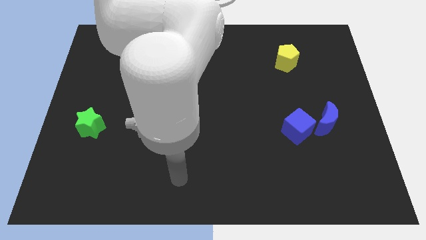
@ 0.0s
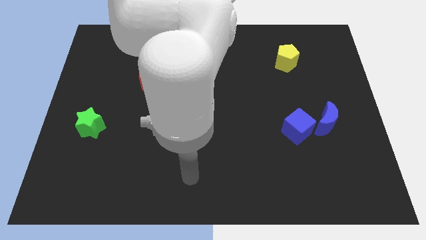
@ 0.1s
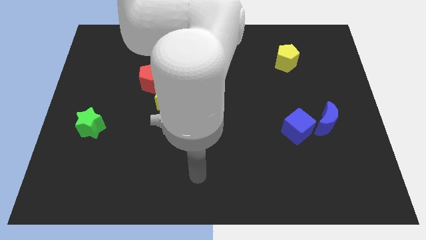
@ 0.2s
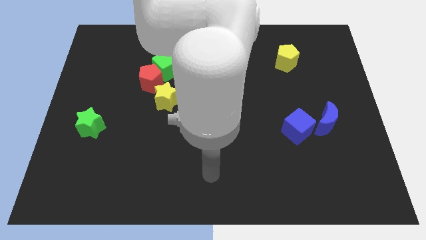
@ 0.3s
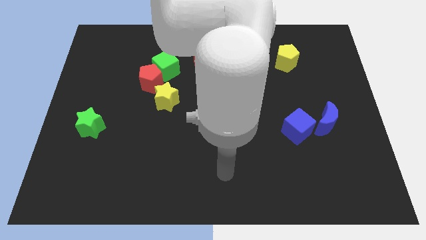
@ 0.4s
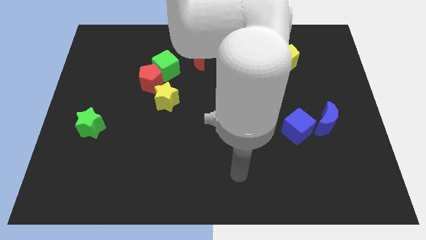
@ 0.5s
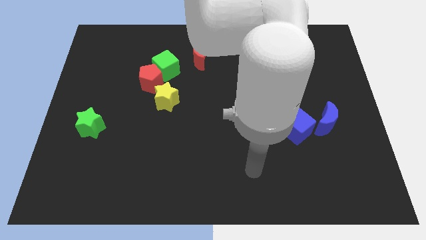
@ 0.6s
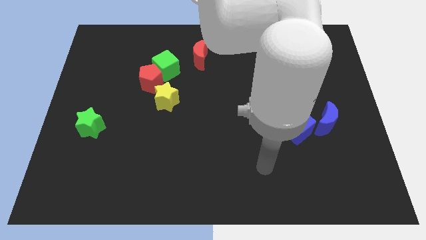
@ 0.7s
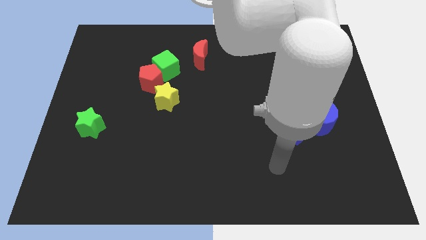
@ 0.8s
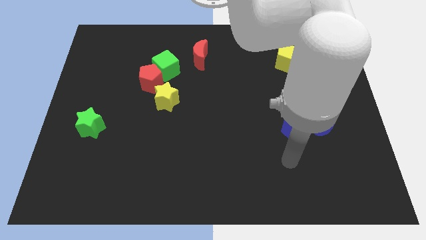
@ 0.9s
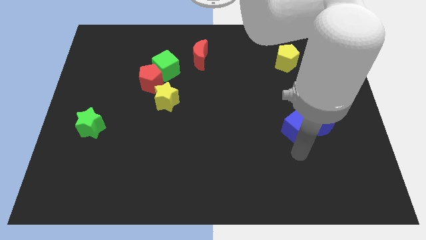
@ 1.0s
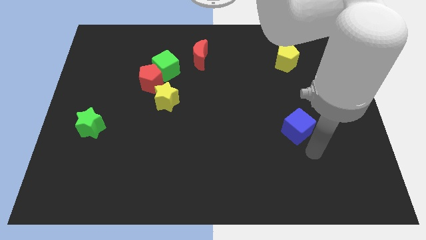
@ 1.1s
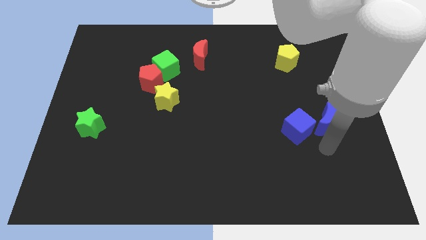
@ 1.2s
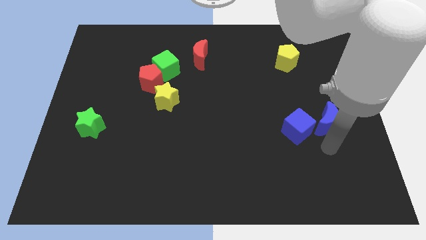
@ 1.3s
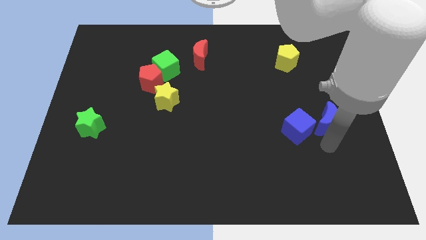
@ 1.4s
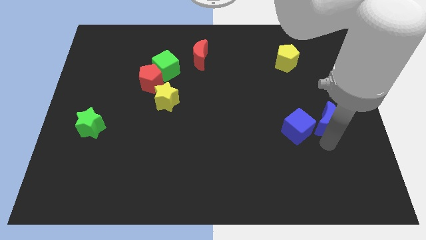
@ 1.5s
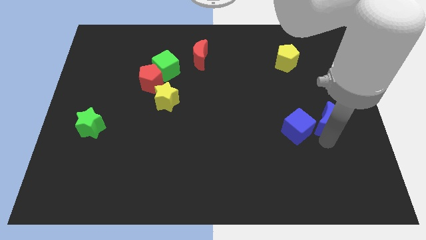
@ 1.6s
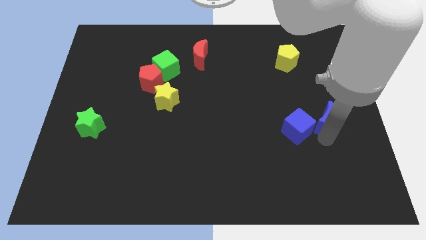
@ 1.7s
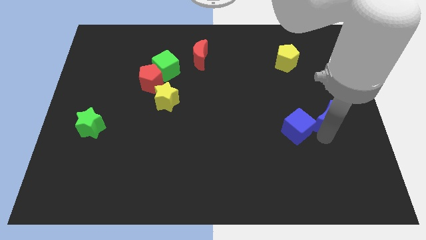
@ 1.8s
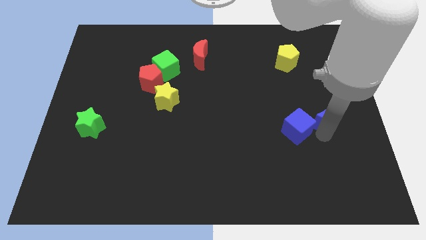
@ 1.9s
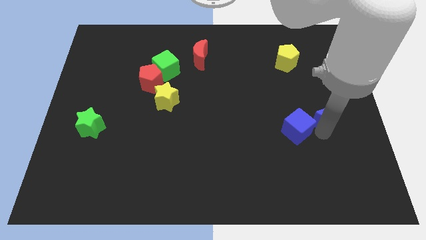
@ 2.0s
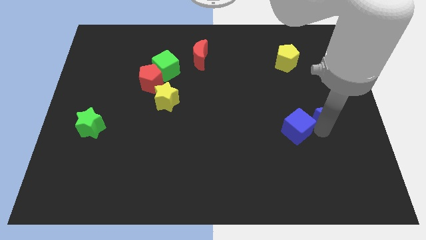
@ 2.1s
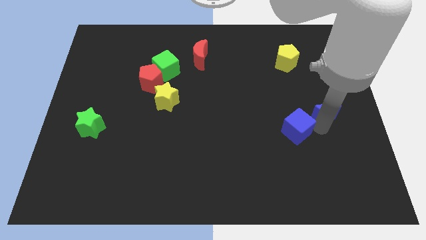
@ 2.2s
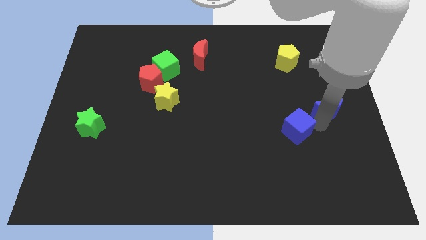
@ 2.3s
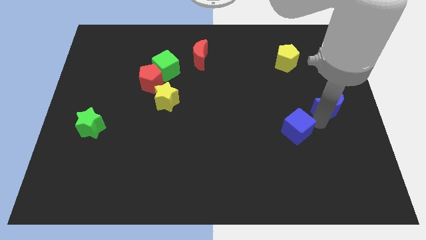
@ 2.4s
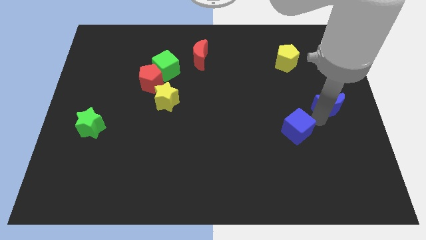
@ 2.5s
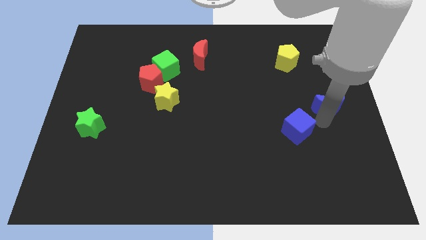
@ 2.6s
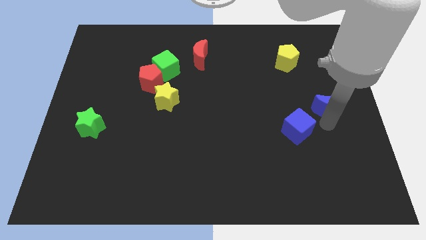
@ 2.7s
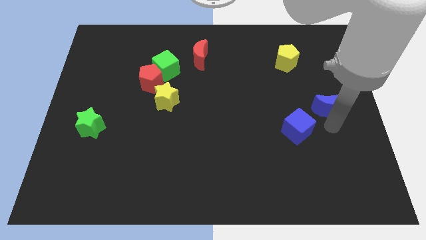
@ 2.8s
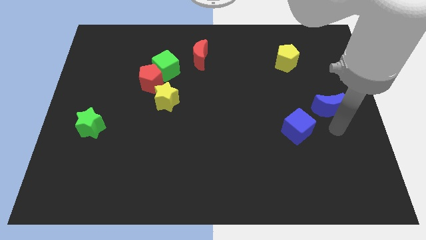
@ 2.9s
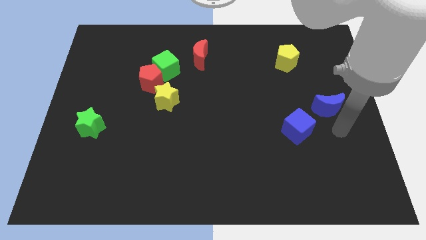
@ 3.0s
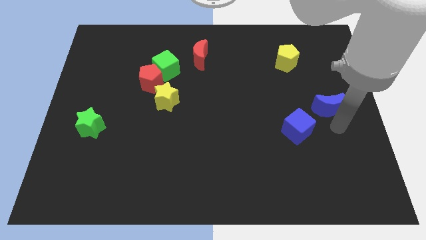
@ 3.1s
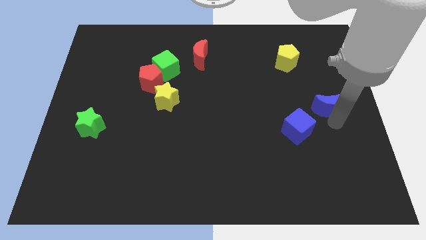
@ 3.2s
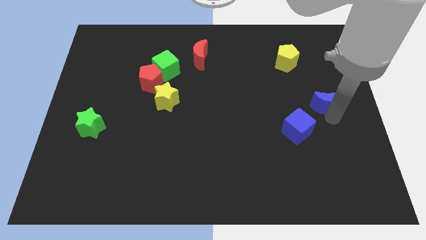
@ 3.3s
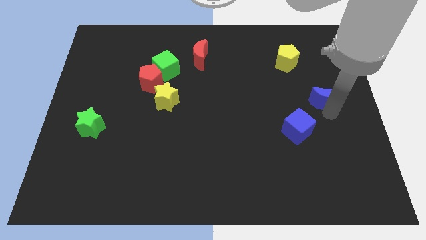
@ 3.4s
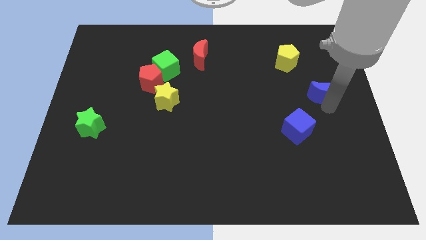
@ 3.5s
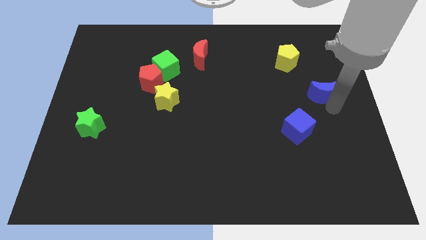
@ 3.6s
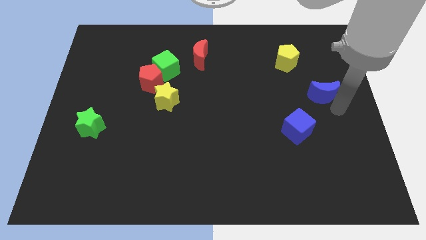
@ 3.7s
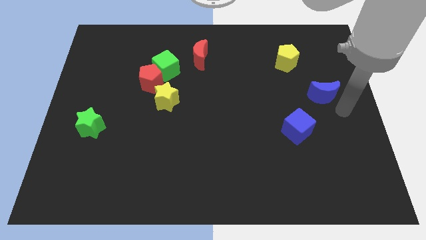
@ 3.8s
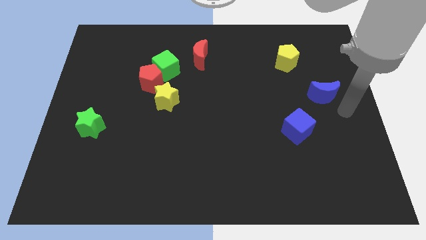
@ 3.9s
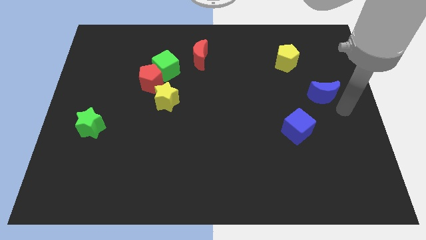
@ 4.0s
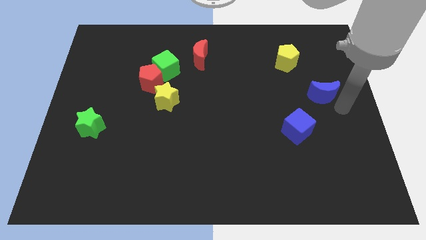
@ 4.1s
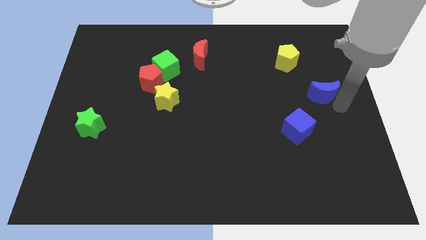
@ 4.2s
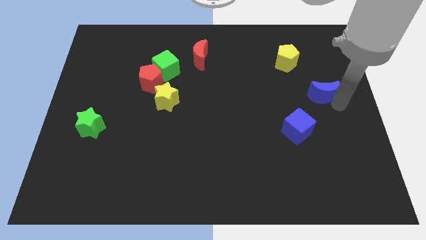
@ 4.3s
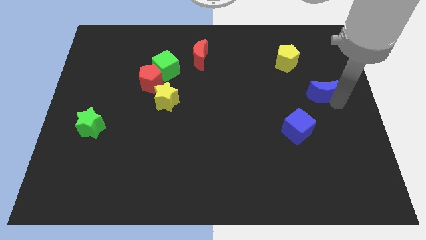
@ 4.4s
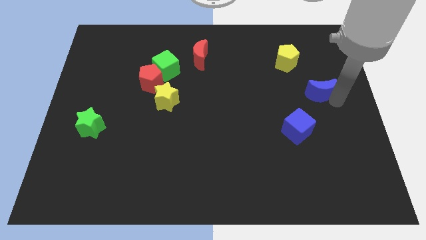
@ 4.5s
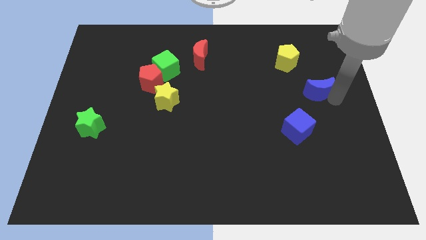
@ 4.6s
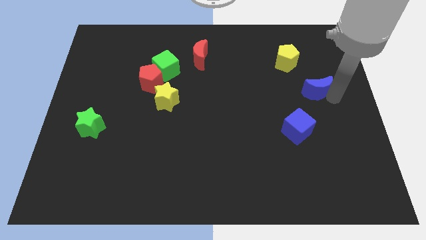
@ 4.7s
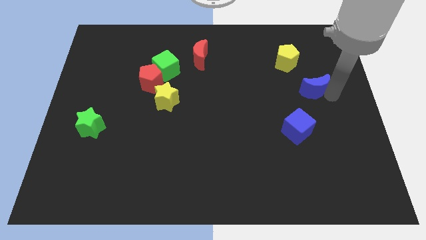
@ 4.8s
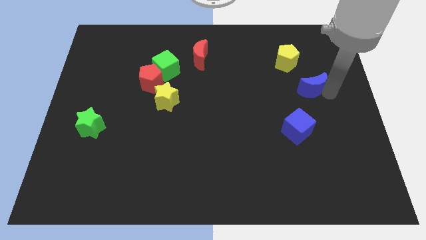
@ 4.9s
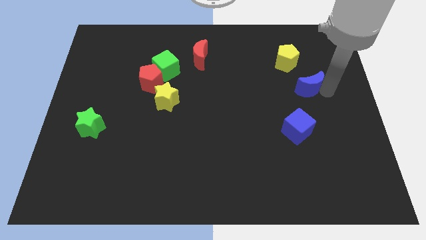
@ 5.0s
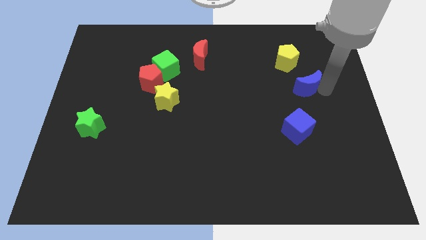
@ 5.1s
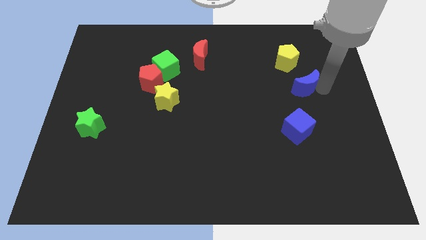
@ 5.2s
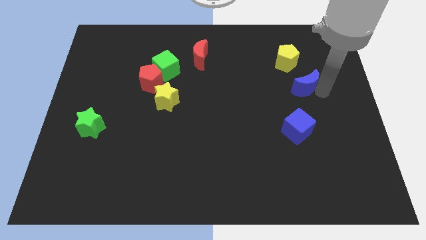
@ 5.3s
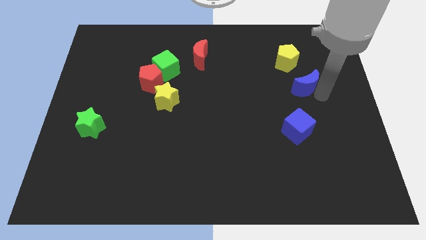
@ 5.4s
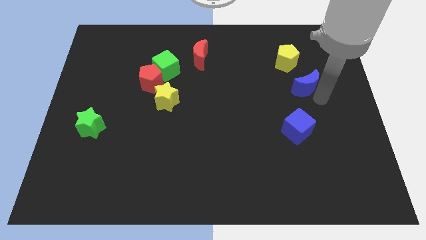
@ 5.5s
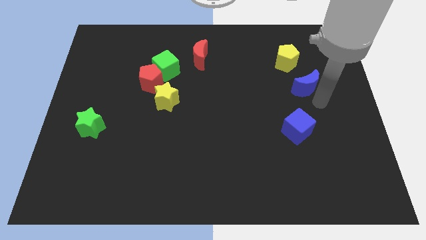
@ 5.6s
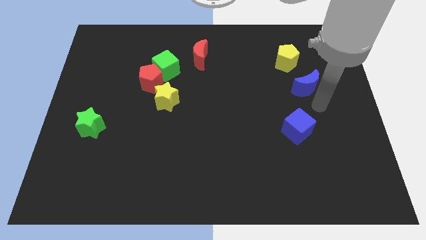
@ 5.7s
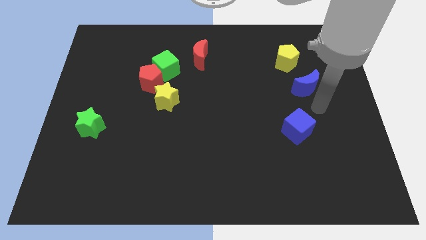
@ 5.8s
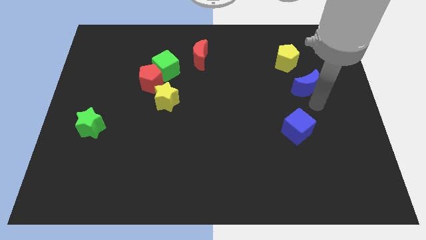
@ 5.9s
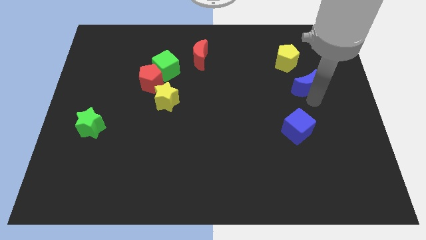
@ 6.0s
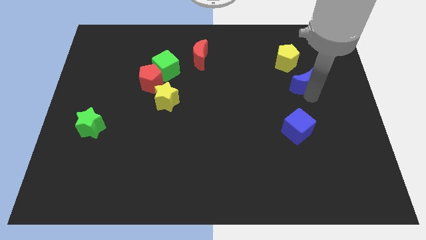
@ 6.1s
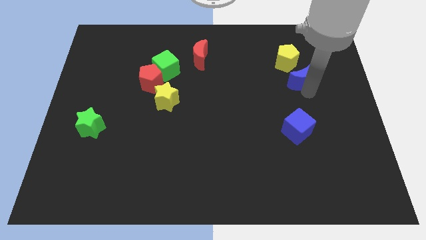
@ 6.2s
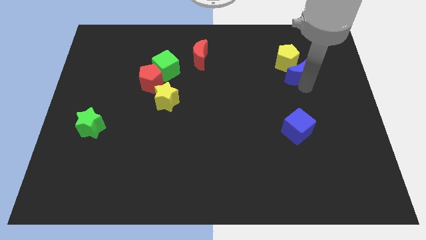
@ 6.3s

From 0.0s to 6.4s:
push the blue moon next to the yellow pentagon

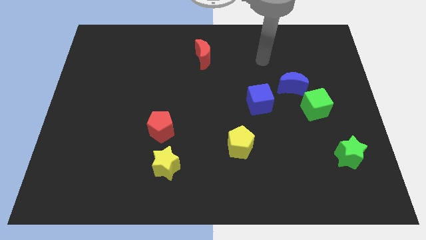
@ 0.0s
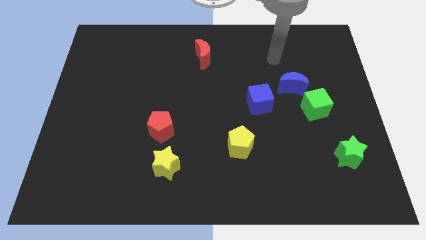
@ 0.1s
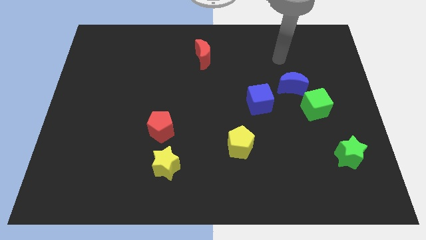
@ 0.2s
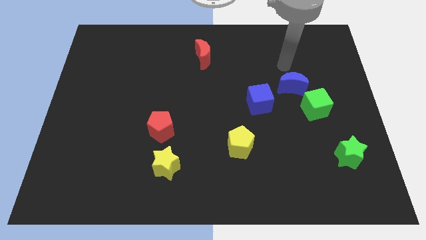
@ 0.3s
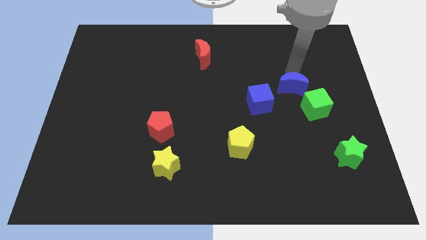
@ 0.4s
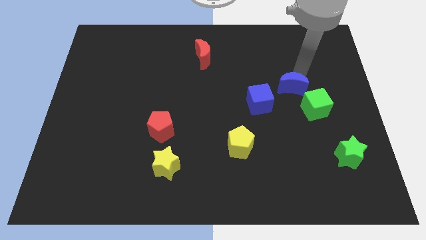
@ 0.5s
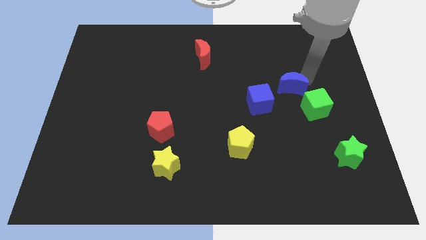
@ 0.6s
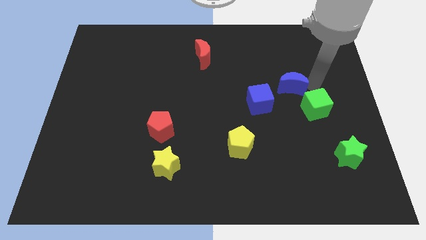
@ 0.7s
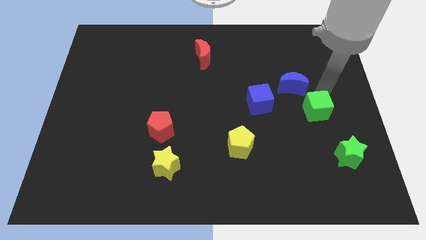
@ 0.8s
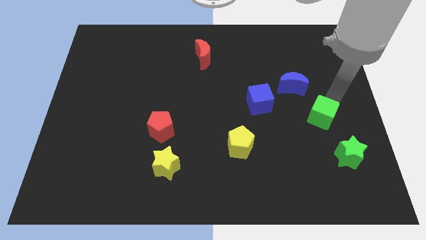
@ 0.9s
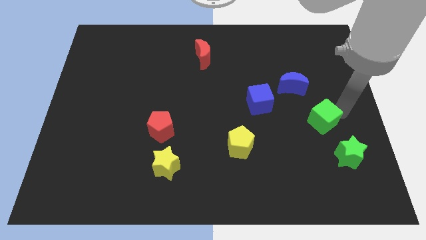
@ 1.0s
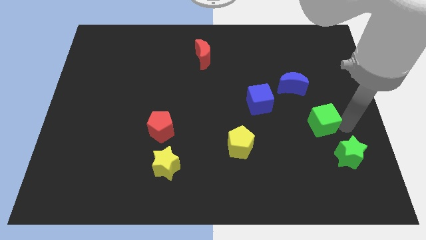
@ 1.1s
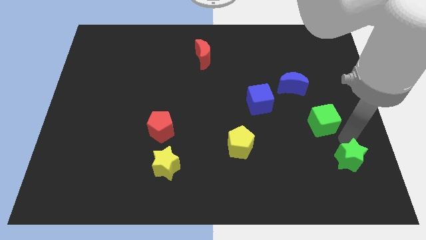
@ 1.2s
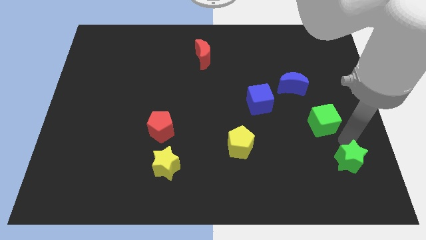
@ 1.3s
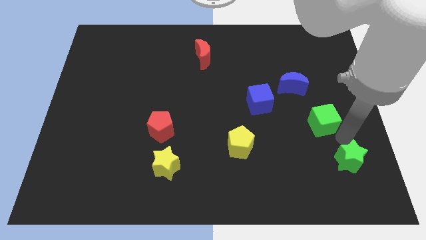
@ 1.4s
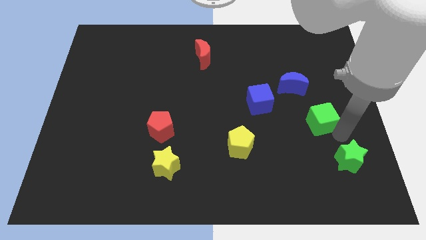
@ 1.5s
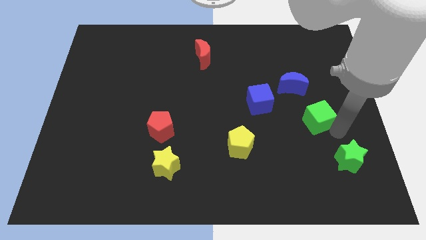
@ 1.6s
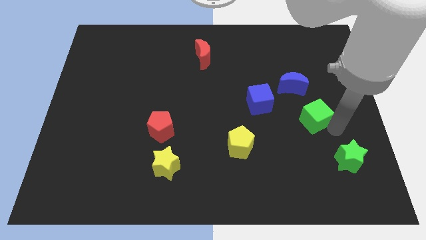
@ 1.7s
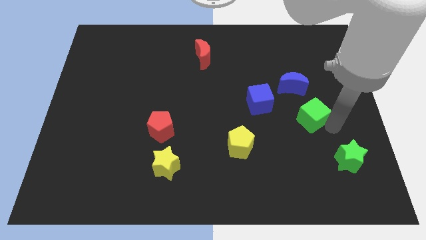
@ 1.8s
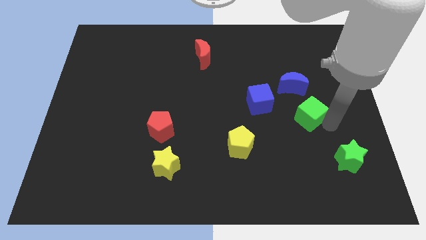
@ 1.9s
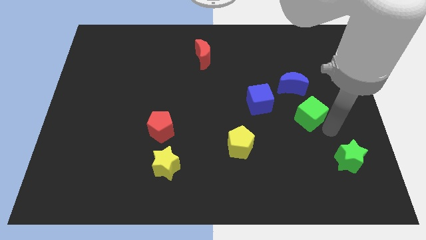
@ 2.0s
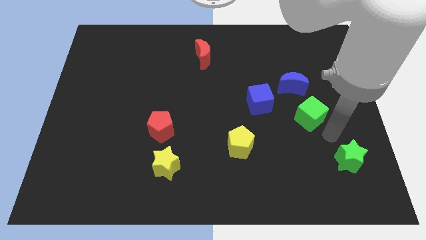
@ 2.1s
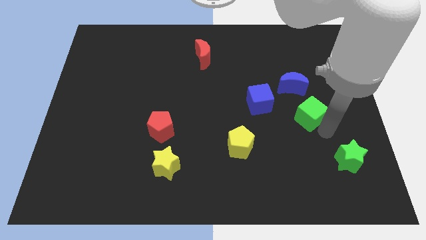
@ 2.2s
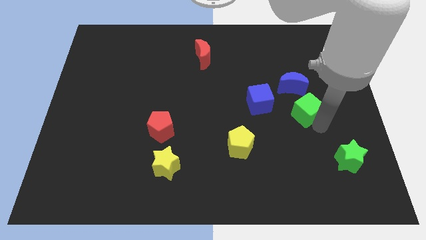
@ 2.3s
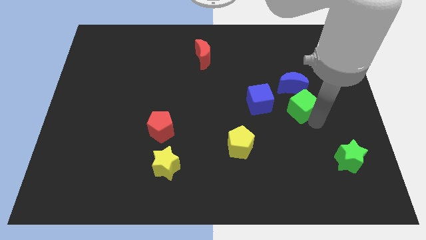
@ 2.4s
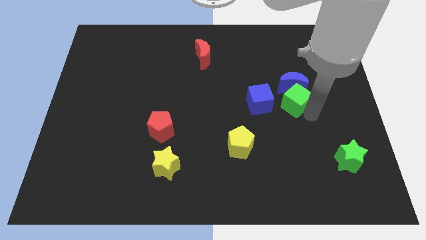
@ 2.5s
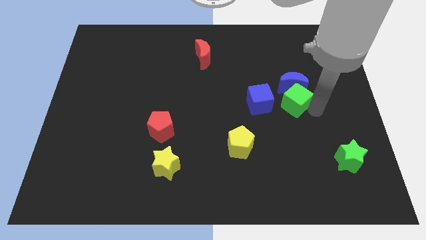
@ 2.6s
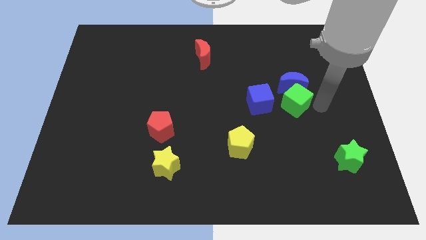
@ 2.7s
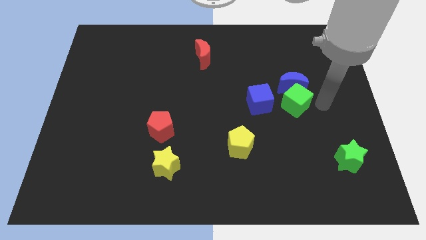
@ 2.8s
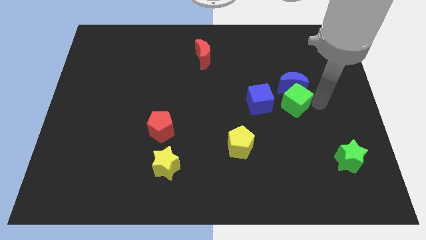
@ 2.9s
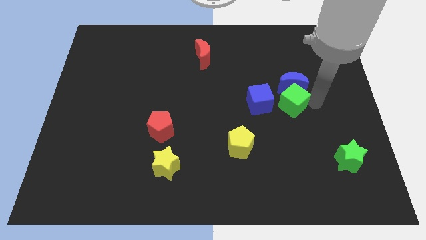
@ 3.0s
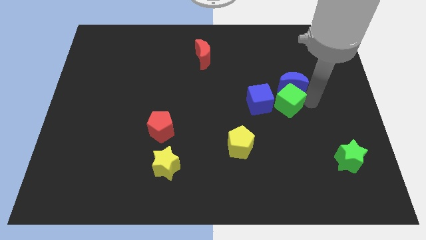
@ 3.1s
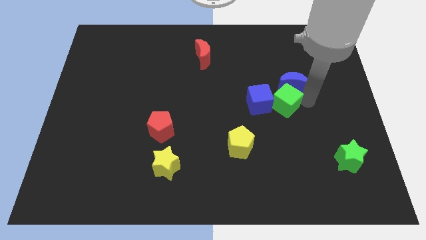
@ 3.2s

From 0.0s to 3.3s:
put the green cube close to the blue cube
